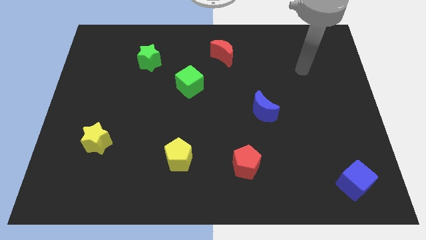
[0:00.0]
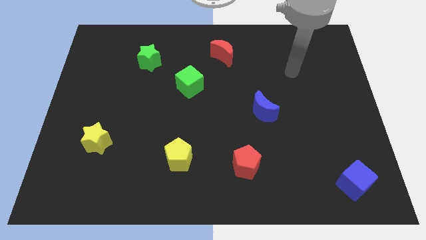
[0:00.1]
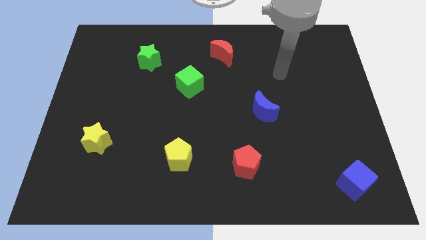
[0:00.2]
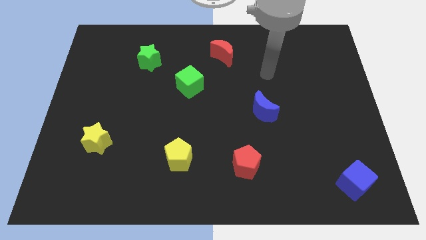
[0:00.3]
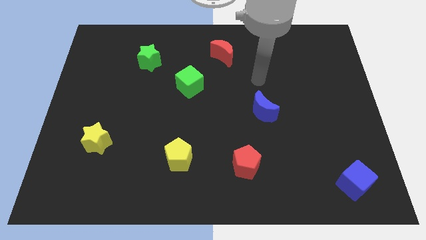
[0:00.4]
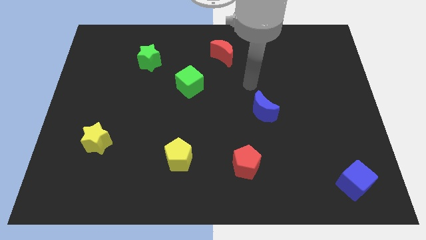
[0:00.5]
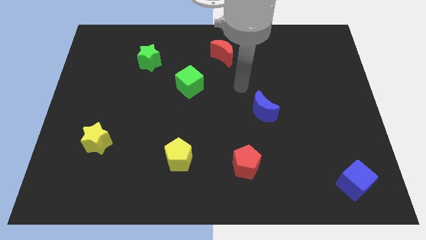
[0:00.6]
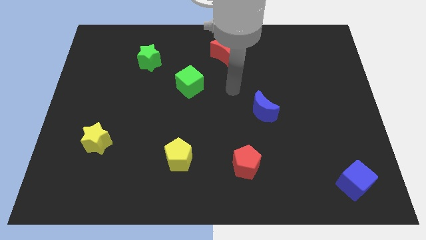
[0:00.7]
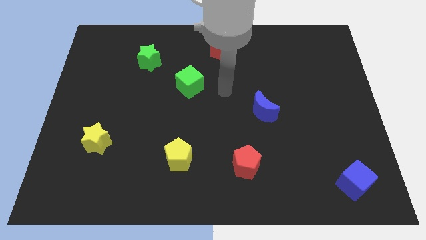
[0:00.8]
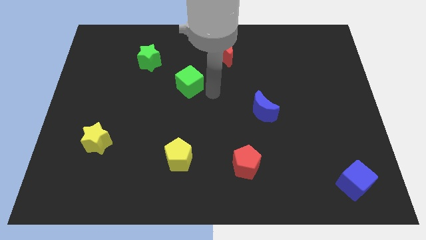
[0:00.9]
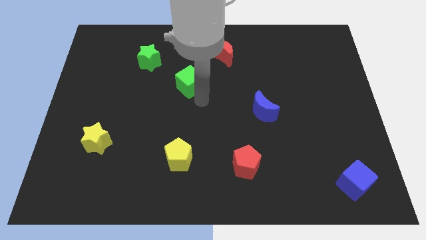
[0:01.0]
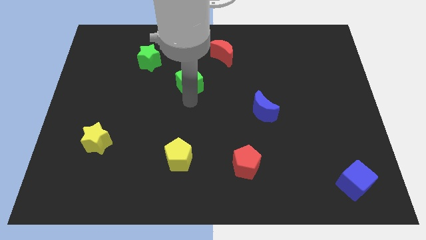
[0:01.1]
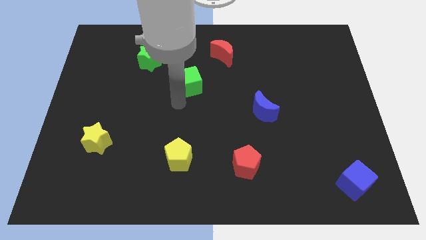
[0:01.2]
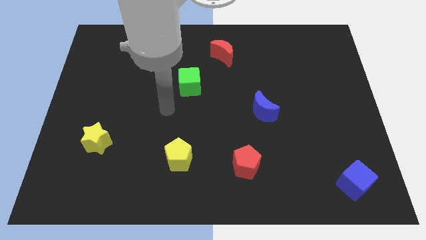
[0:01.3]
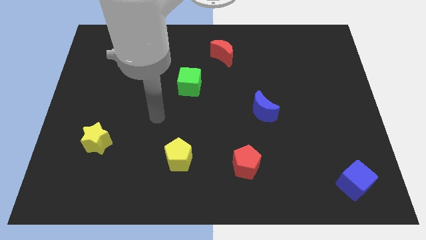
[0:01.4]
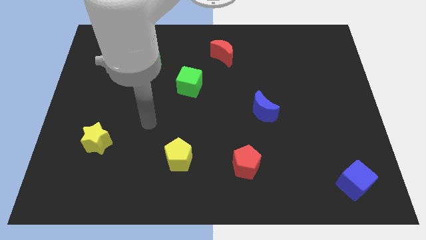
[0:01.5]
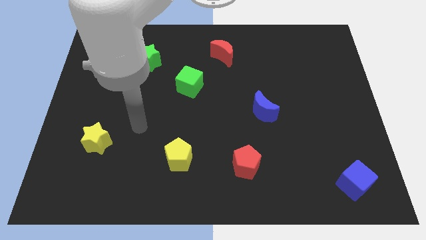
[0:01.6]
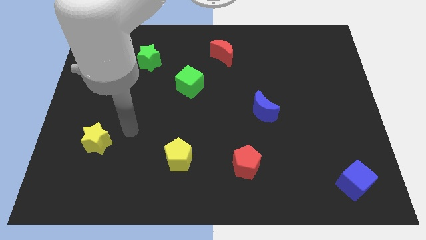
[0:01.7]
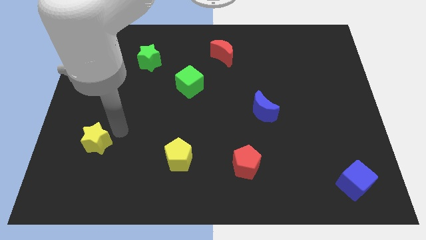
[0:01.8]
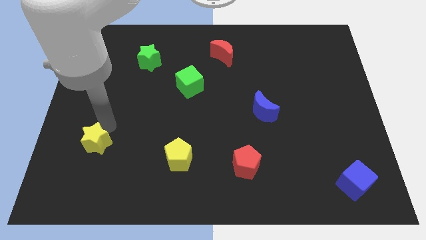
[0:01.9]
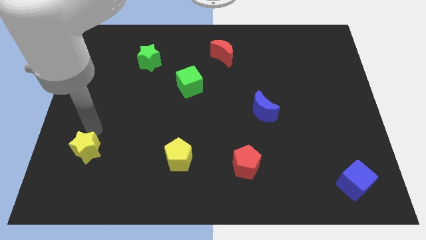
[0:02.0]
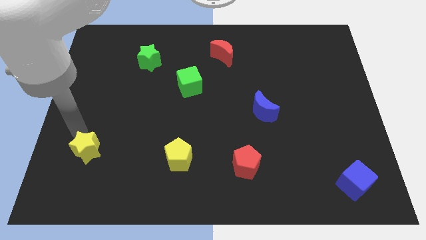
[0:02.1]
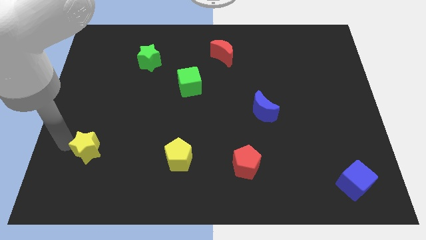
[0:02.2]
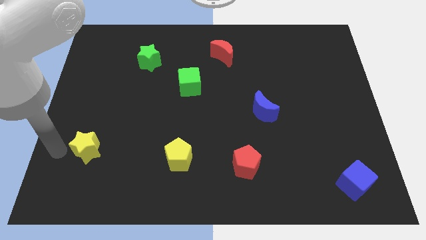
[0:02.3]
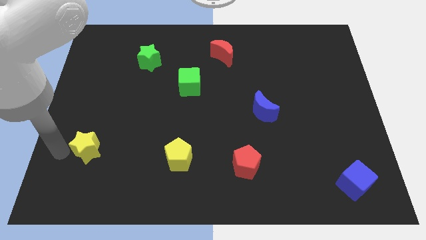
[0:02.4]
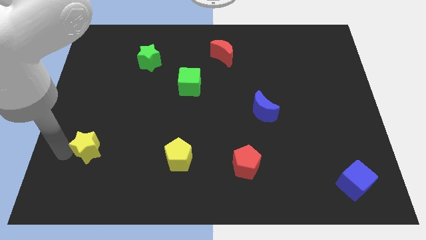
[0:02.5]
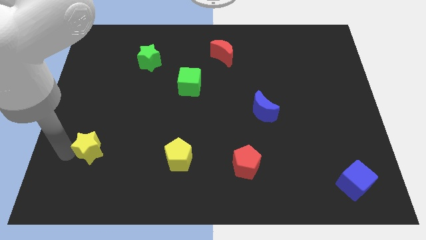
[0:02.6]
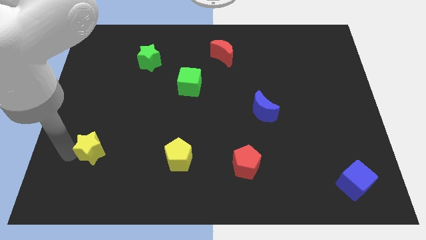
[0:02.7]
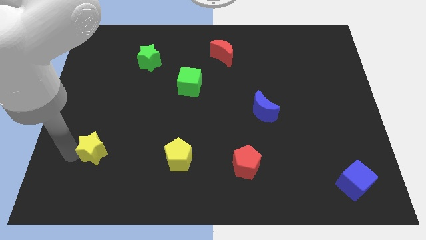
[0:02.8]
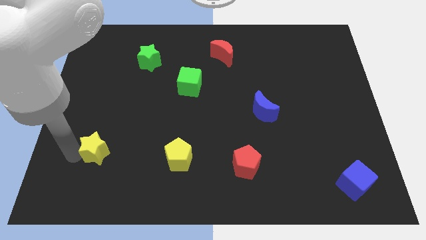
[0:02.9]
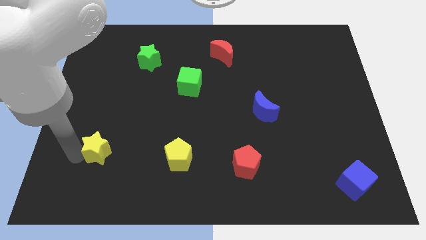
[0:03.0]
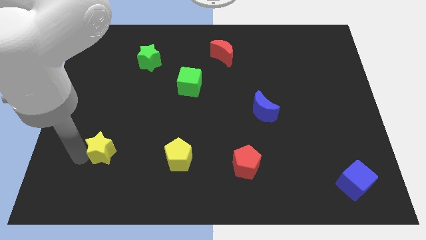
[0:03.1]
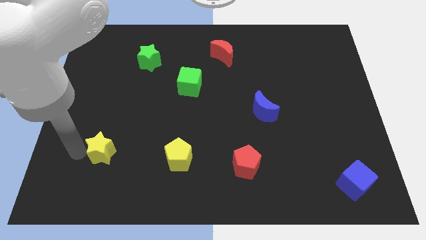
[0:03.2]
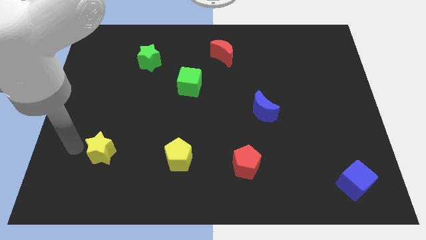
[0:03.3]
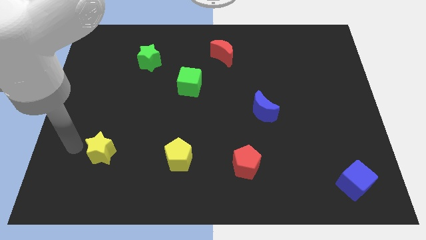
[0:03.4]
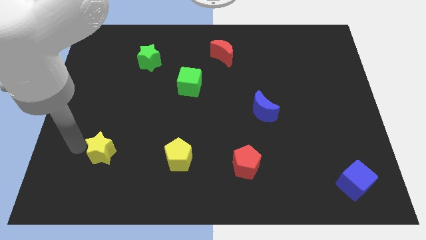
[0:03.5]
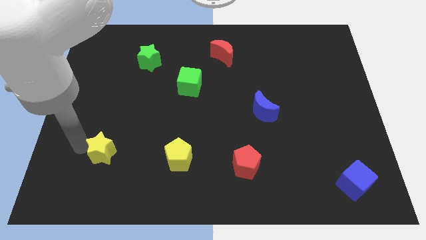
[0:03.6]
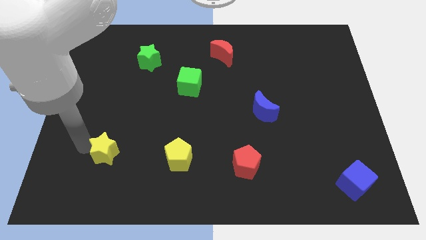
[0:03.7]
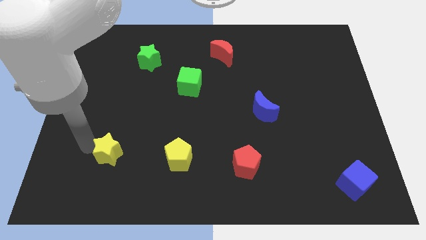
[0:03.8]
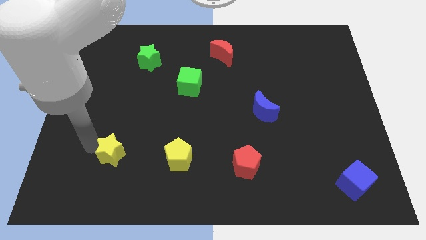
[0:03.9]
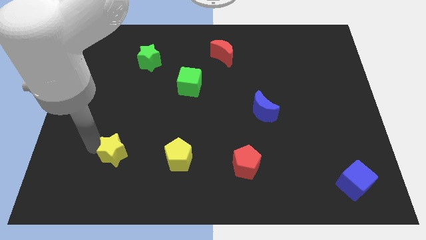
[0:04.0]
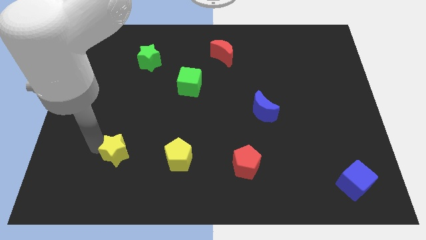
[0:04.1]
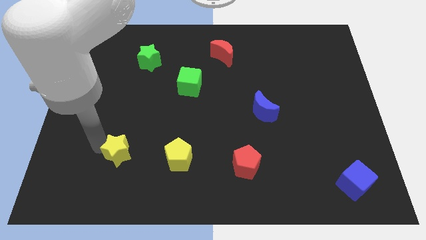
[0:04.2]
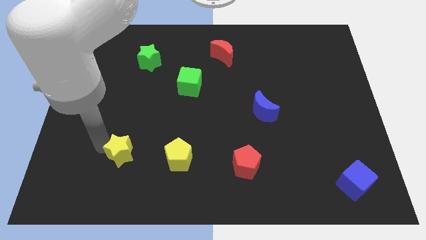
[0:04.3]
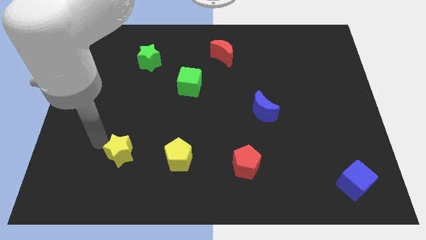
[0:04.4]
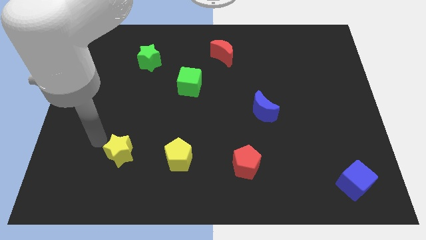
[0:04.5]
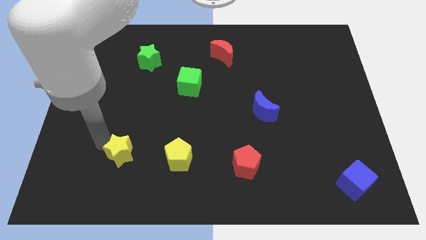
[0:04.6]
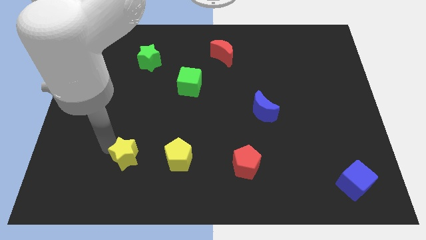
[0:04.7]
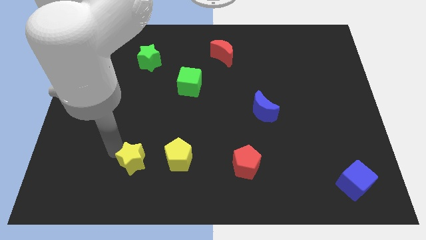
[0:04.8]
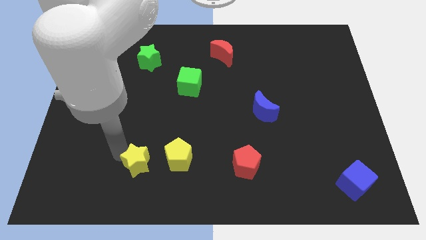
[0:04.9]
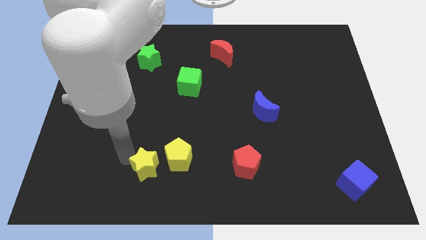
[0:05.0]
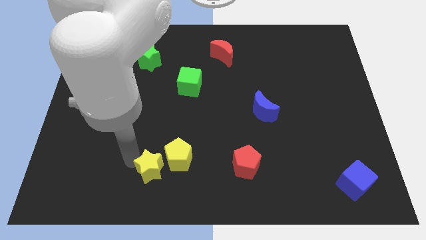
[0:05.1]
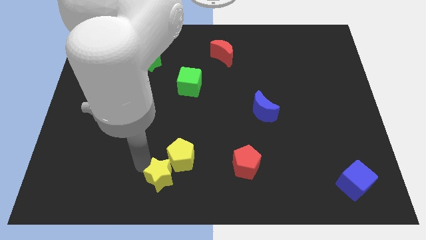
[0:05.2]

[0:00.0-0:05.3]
push the yellow star to the bottom side

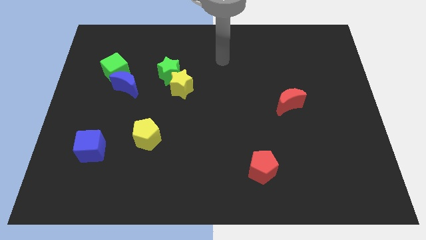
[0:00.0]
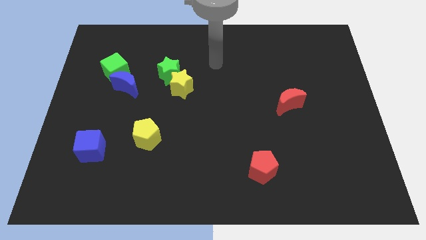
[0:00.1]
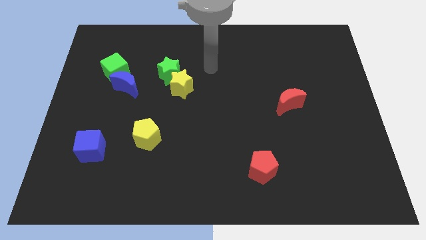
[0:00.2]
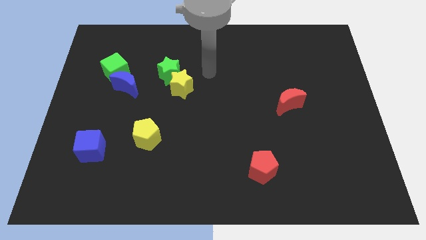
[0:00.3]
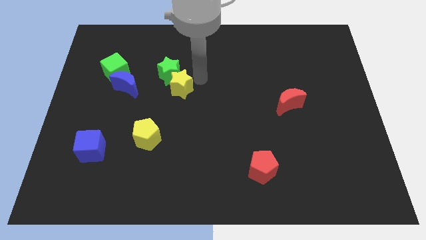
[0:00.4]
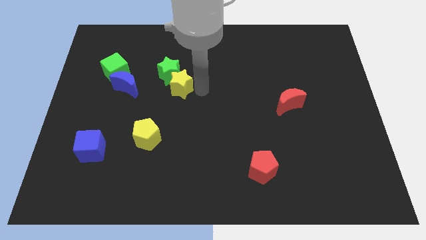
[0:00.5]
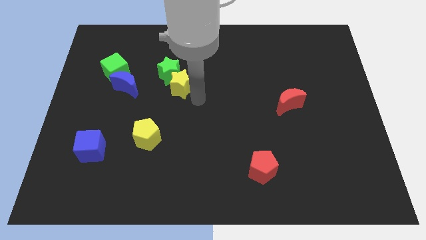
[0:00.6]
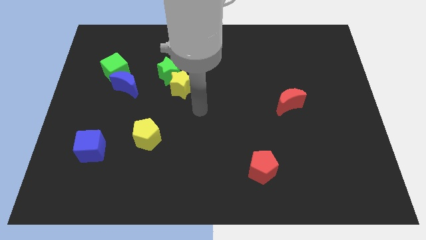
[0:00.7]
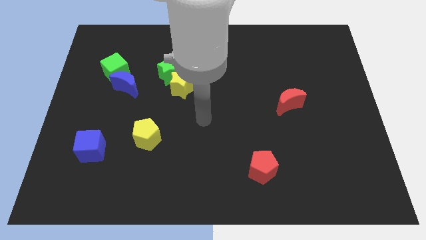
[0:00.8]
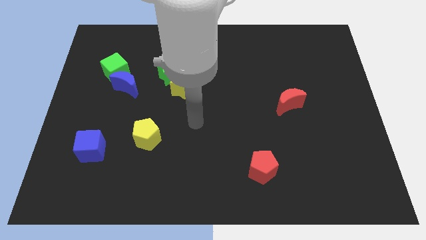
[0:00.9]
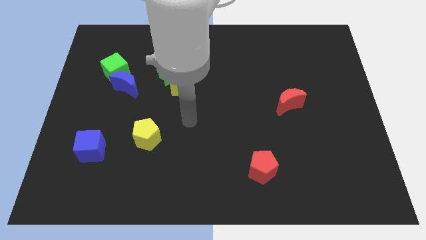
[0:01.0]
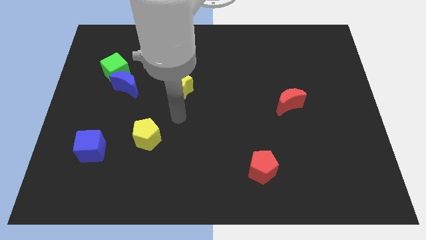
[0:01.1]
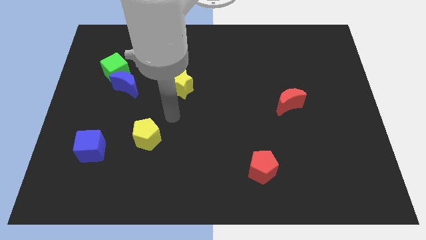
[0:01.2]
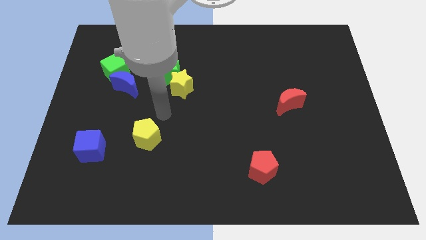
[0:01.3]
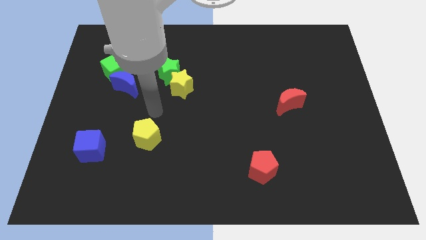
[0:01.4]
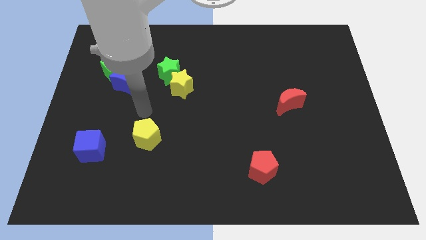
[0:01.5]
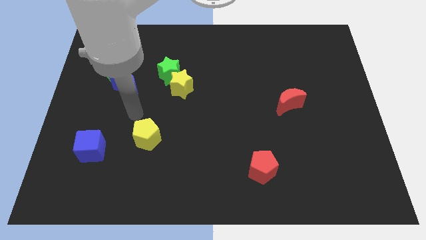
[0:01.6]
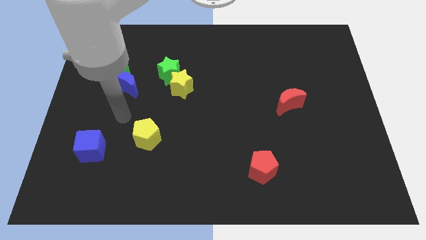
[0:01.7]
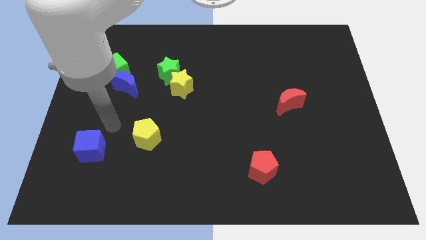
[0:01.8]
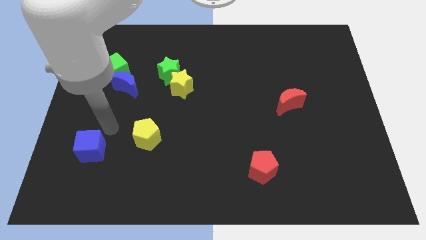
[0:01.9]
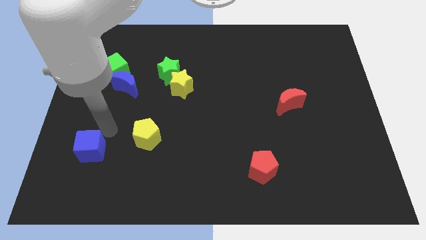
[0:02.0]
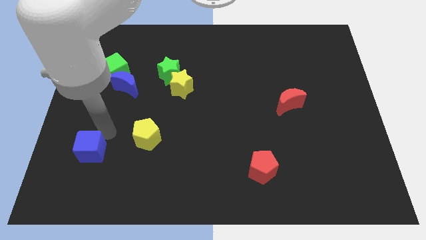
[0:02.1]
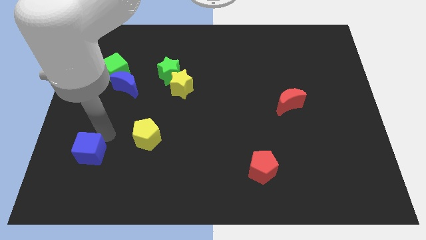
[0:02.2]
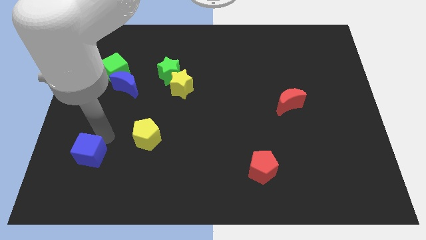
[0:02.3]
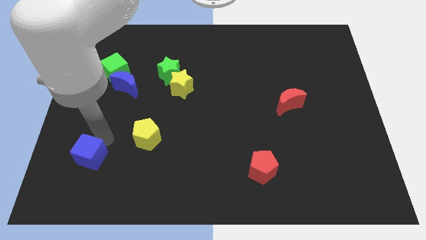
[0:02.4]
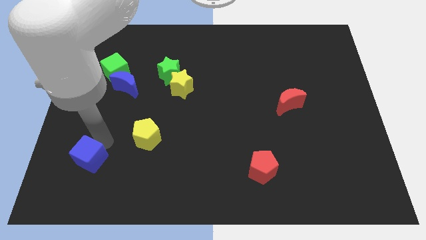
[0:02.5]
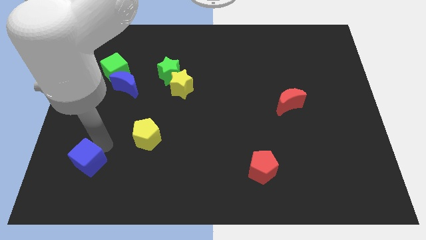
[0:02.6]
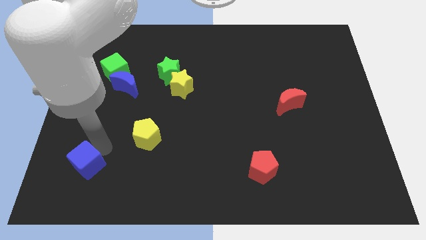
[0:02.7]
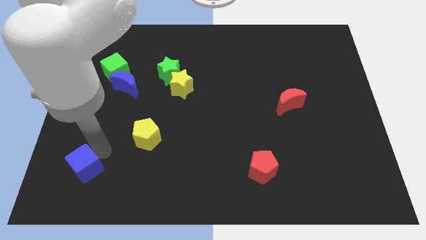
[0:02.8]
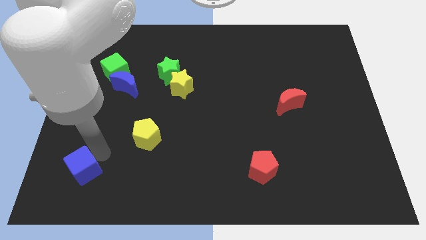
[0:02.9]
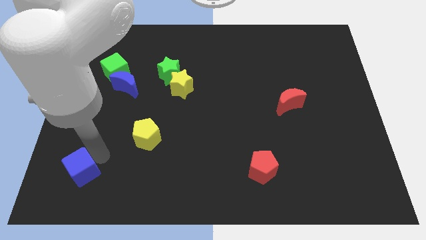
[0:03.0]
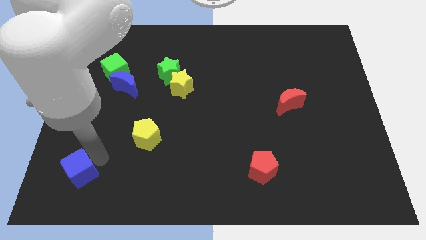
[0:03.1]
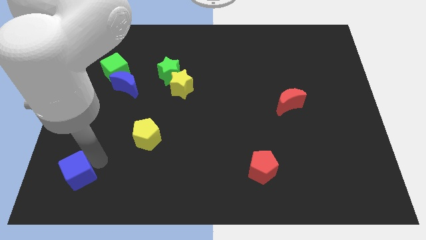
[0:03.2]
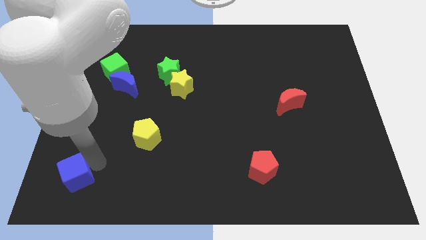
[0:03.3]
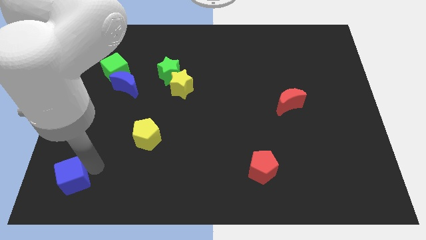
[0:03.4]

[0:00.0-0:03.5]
push the blue cube to the bottom left
